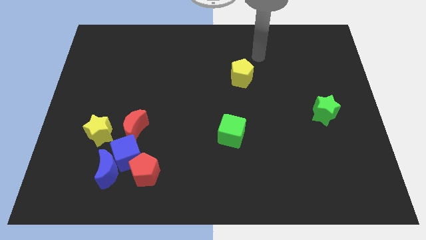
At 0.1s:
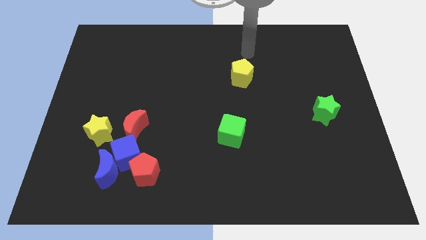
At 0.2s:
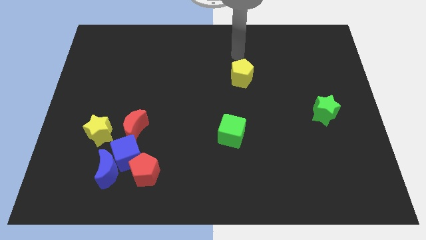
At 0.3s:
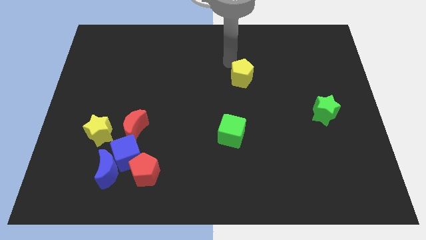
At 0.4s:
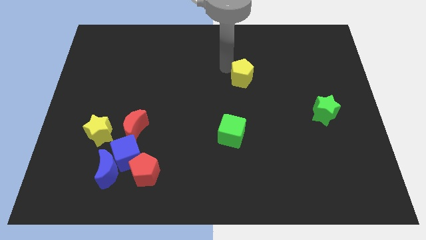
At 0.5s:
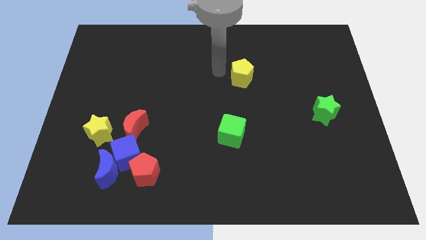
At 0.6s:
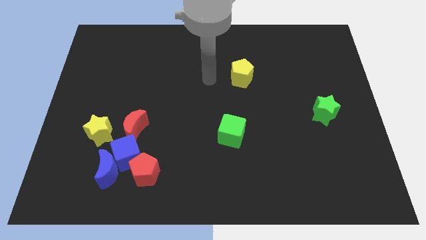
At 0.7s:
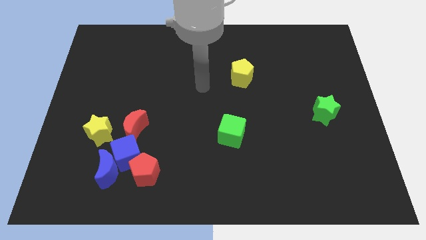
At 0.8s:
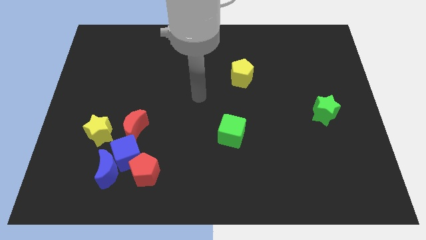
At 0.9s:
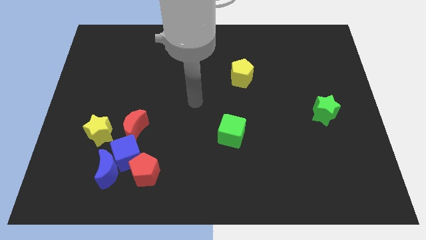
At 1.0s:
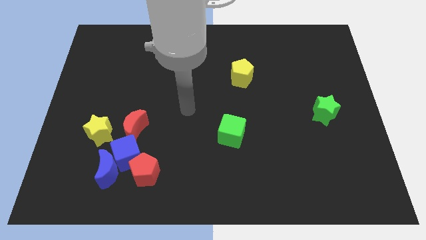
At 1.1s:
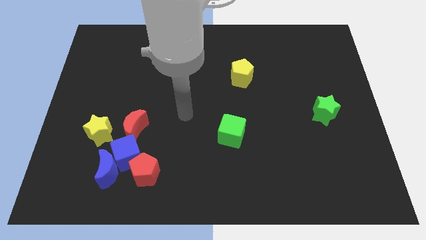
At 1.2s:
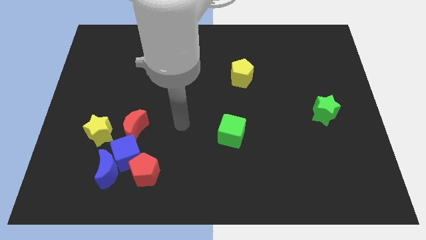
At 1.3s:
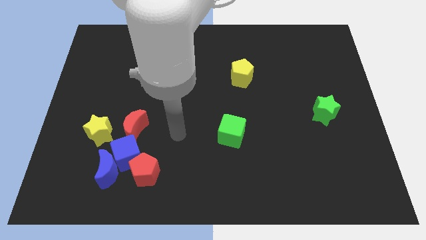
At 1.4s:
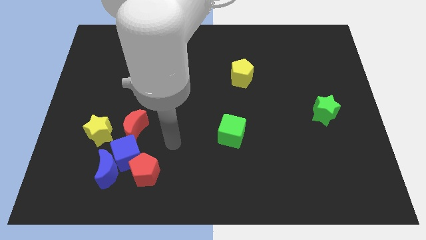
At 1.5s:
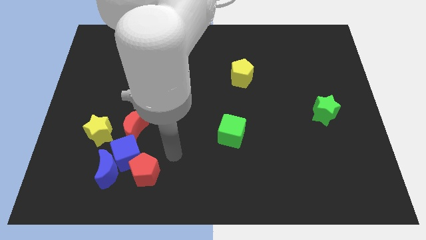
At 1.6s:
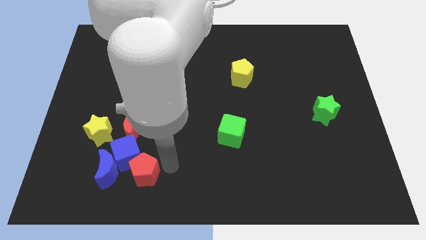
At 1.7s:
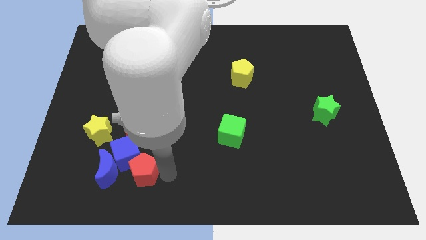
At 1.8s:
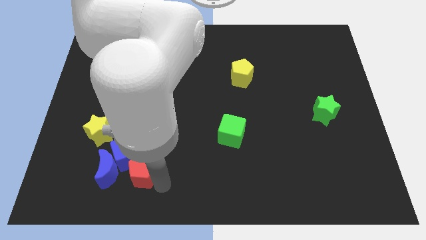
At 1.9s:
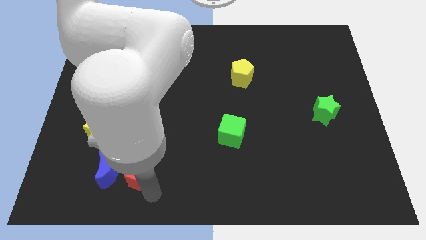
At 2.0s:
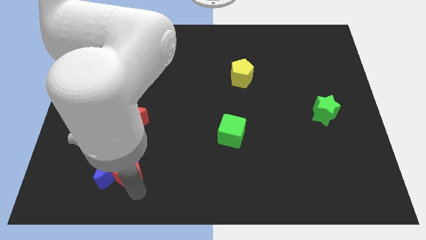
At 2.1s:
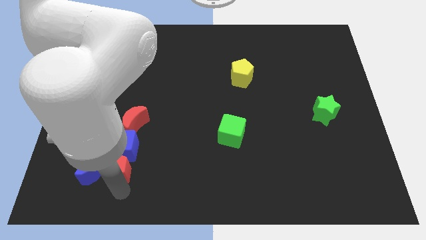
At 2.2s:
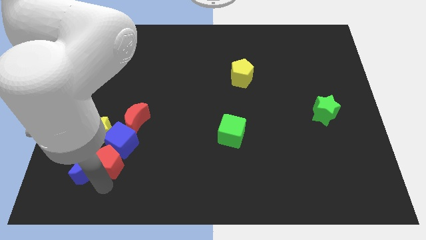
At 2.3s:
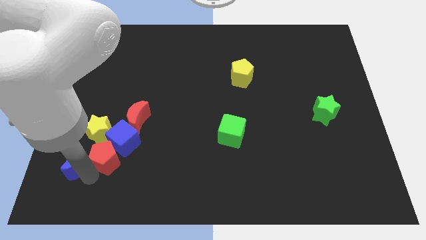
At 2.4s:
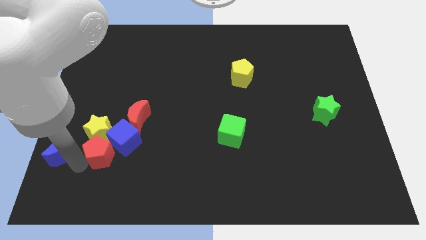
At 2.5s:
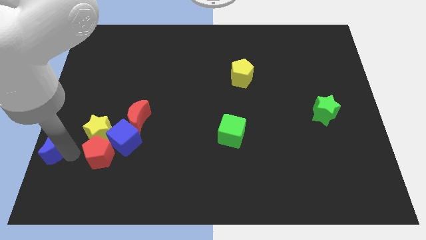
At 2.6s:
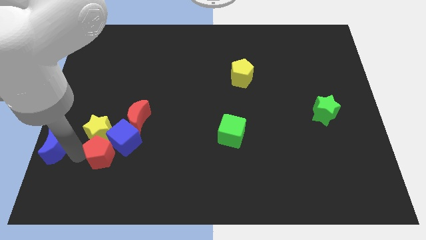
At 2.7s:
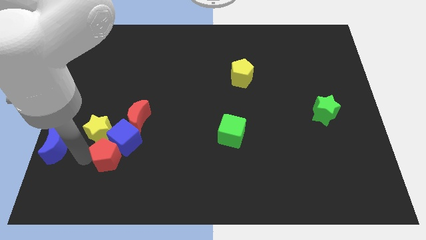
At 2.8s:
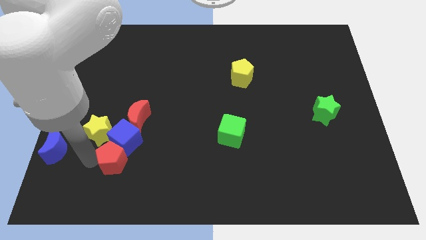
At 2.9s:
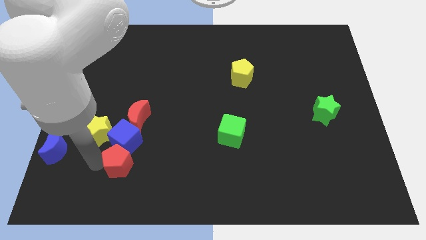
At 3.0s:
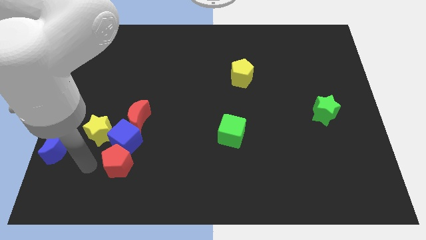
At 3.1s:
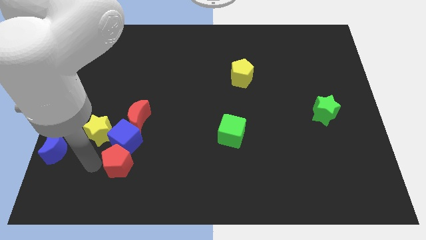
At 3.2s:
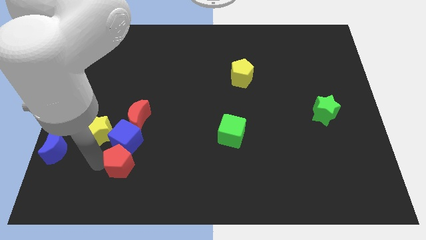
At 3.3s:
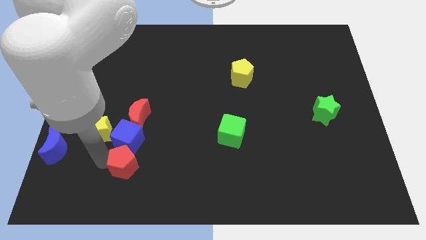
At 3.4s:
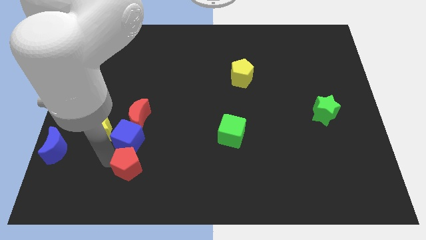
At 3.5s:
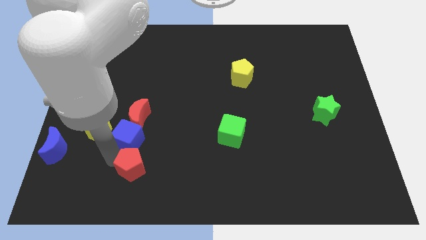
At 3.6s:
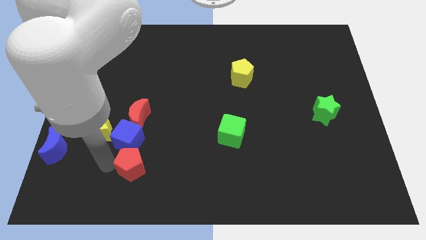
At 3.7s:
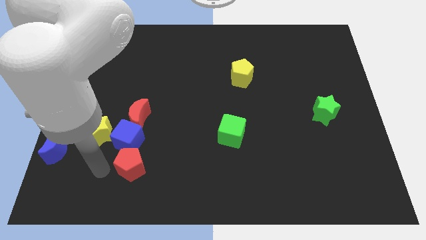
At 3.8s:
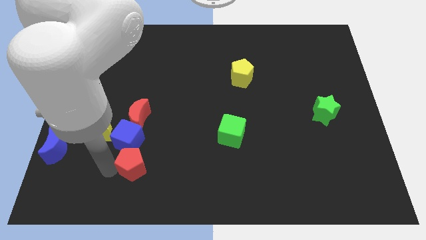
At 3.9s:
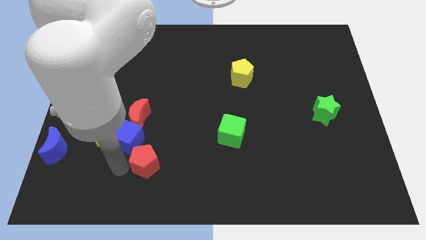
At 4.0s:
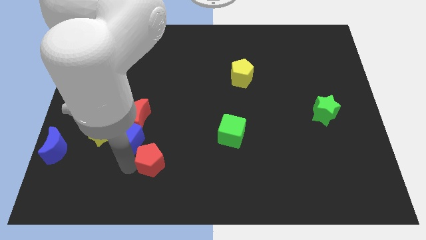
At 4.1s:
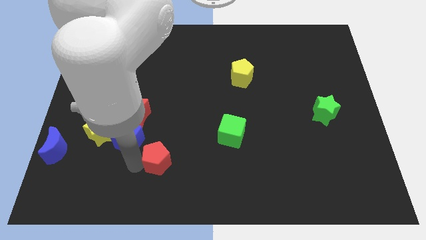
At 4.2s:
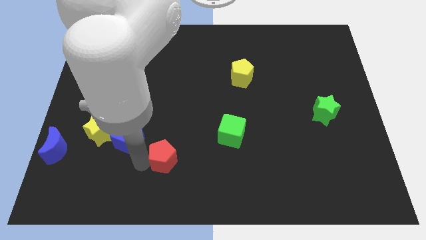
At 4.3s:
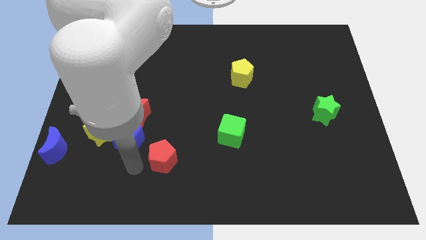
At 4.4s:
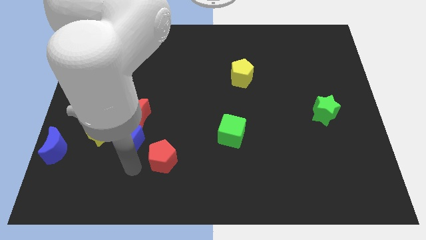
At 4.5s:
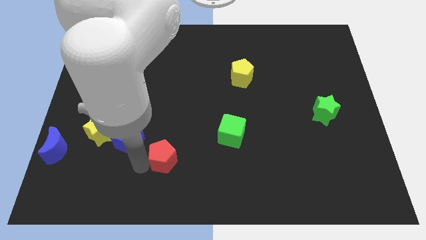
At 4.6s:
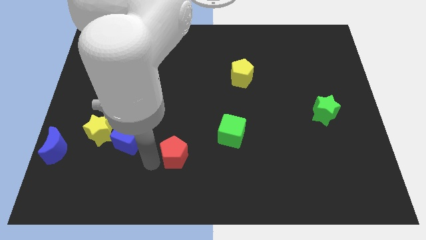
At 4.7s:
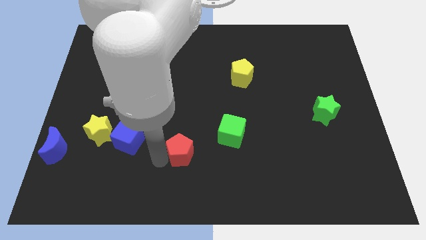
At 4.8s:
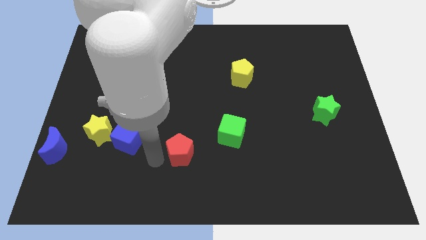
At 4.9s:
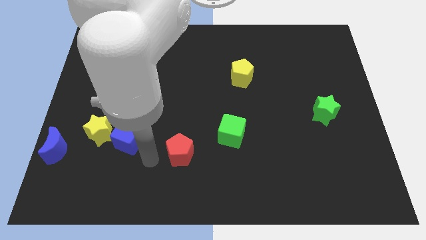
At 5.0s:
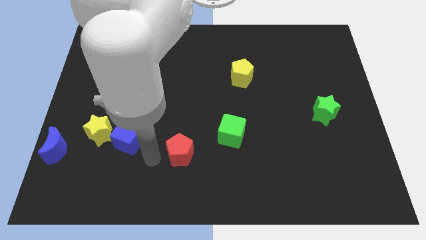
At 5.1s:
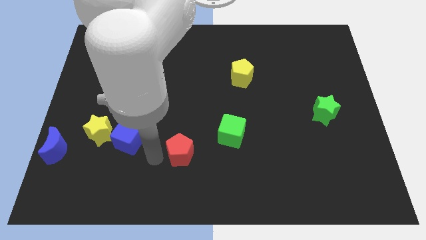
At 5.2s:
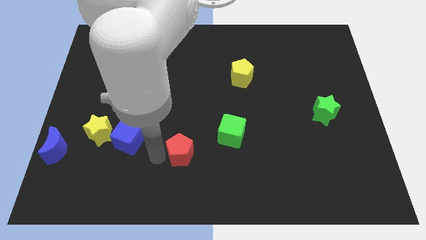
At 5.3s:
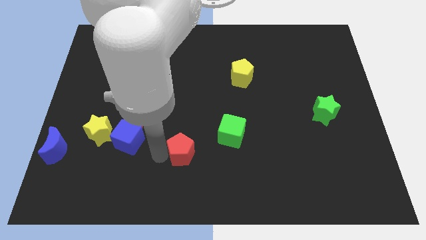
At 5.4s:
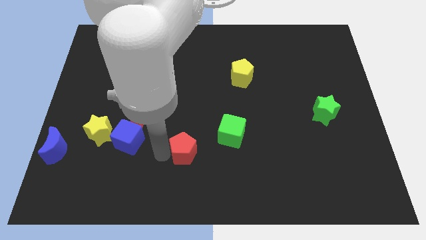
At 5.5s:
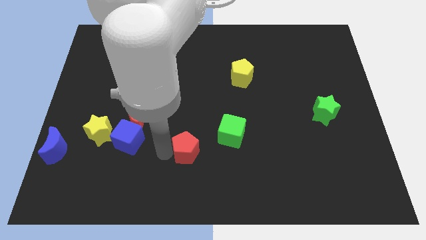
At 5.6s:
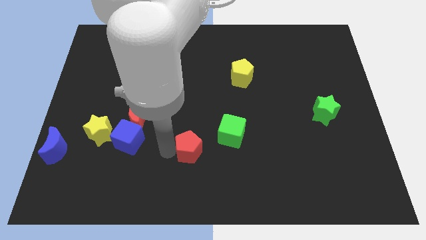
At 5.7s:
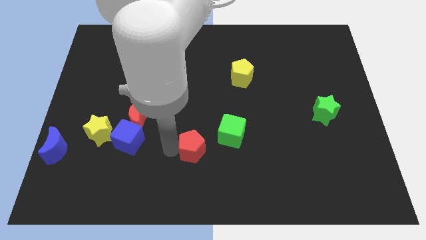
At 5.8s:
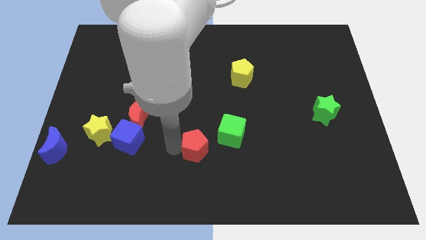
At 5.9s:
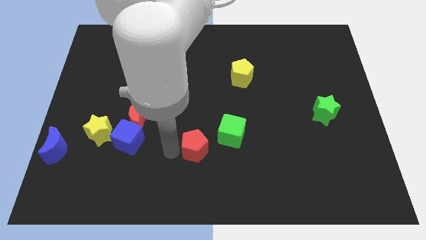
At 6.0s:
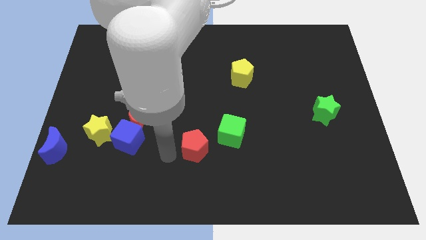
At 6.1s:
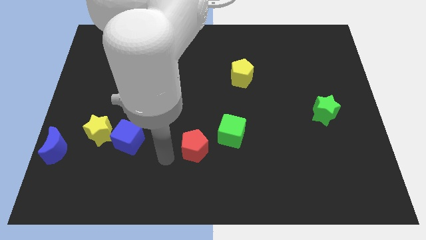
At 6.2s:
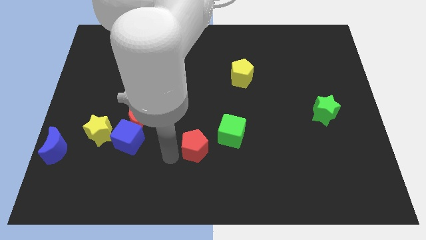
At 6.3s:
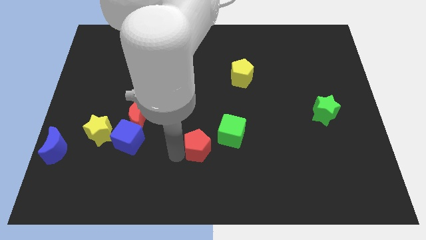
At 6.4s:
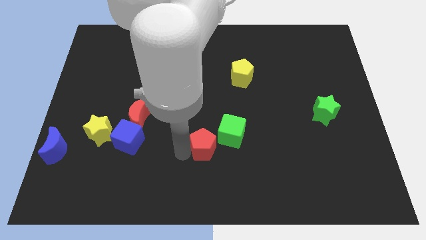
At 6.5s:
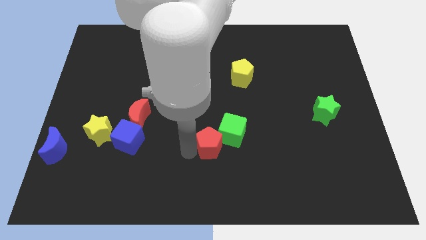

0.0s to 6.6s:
put the red pentagon close to the green cube

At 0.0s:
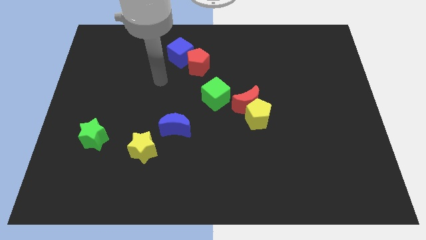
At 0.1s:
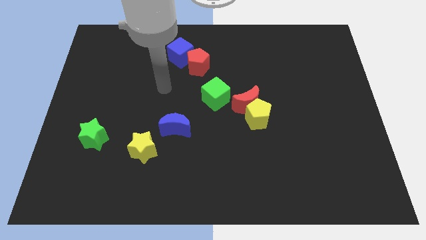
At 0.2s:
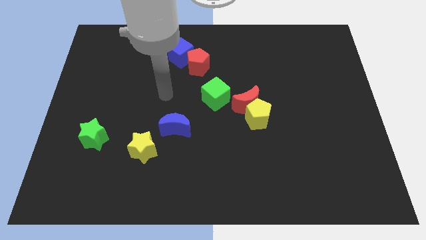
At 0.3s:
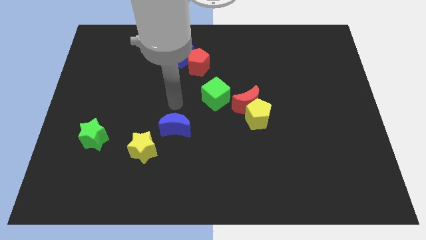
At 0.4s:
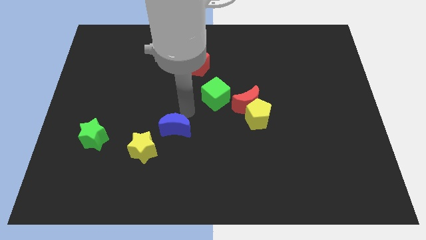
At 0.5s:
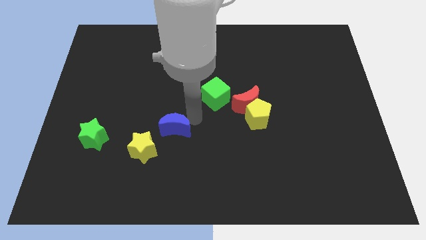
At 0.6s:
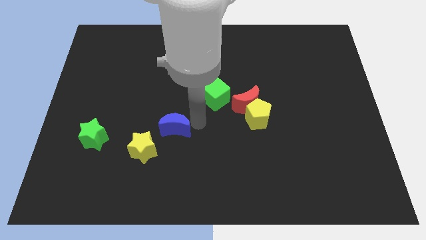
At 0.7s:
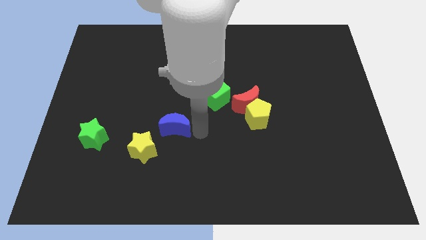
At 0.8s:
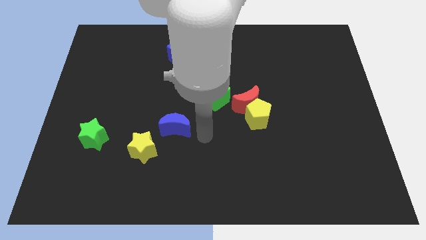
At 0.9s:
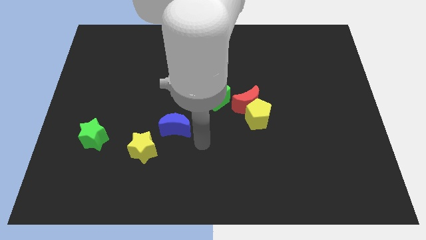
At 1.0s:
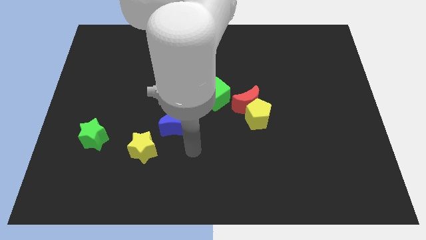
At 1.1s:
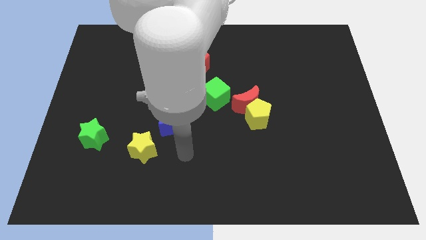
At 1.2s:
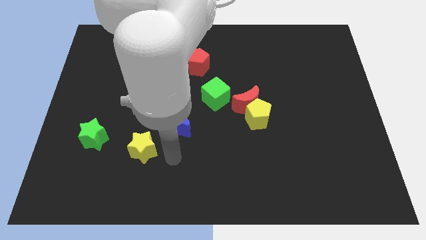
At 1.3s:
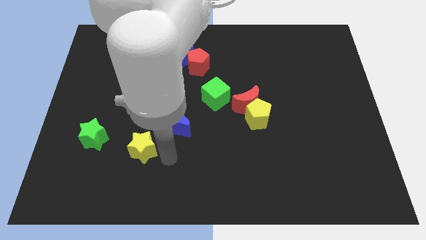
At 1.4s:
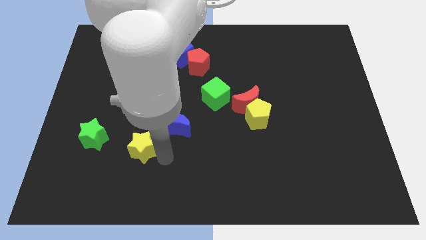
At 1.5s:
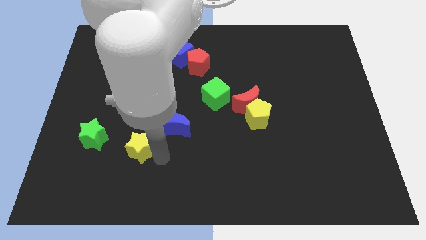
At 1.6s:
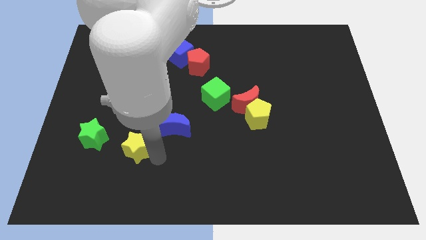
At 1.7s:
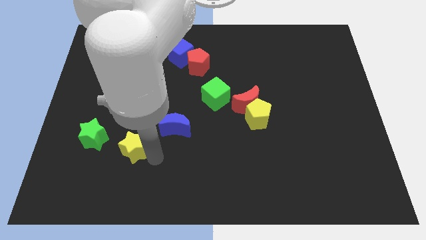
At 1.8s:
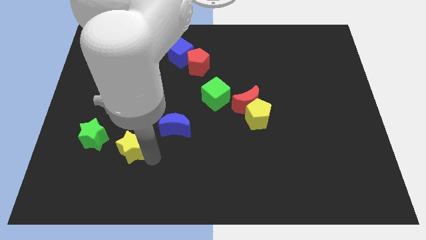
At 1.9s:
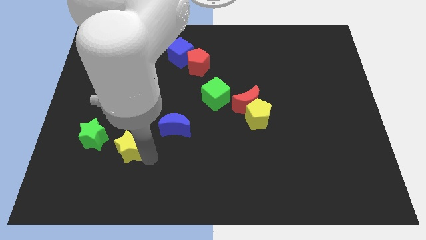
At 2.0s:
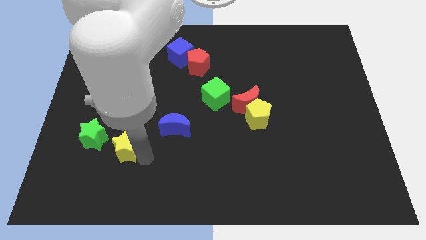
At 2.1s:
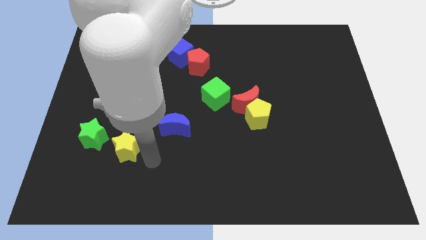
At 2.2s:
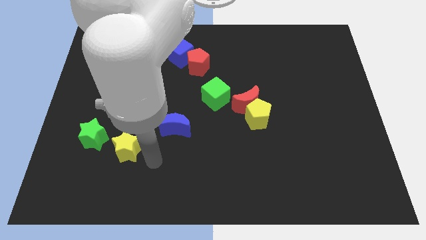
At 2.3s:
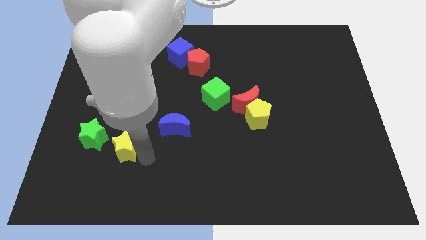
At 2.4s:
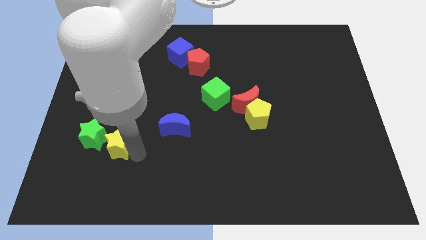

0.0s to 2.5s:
slide the yellow star towards the green star
